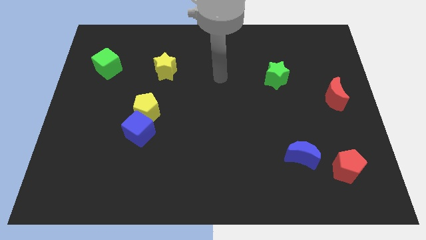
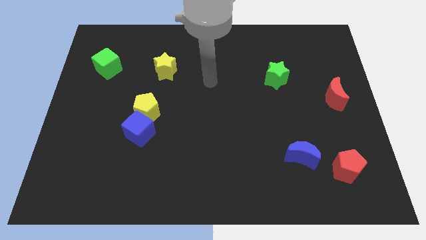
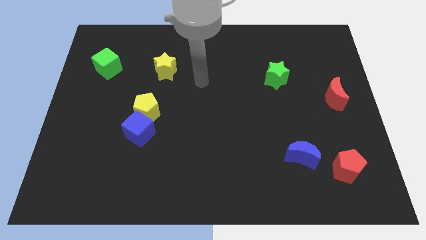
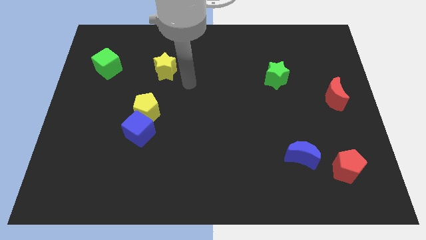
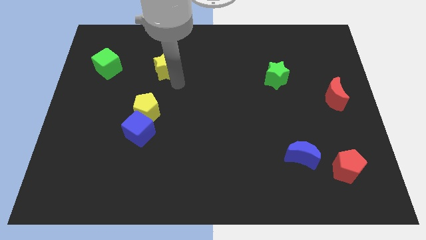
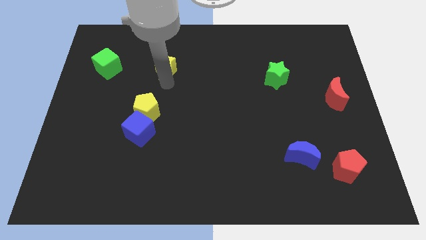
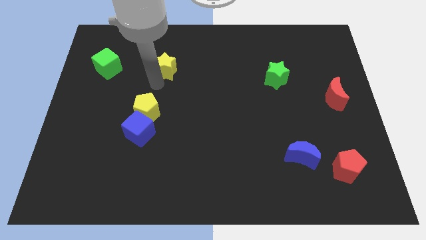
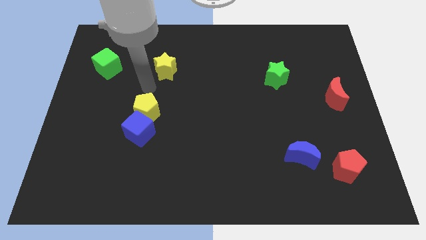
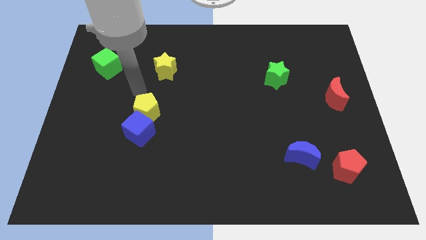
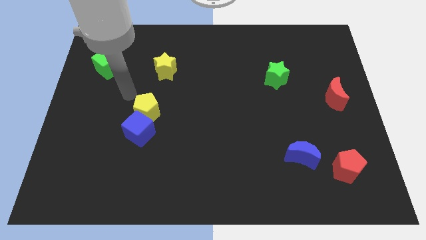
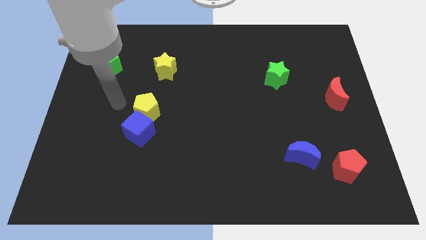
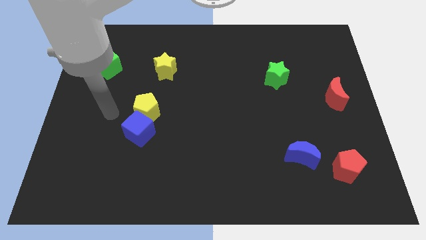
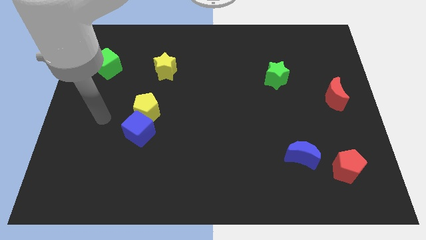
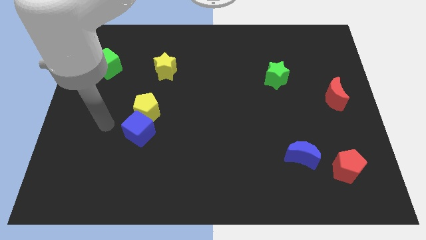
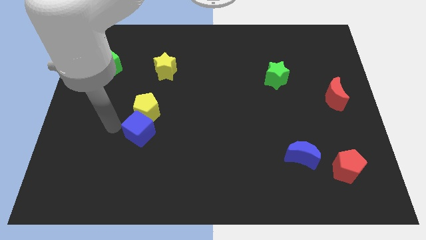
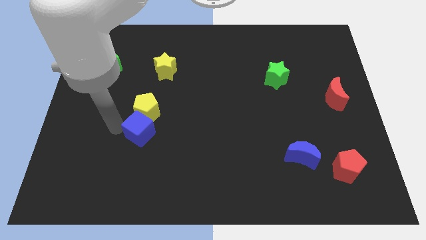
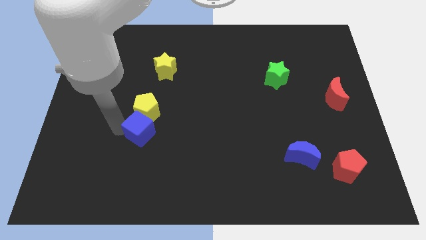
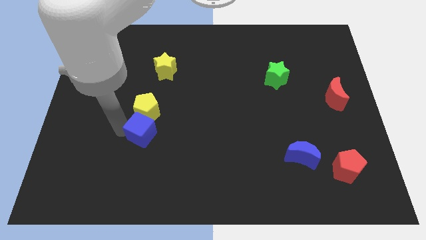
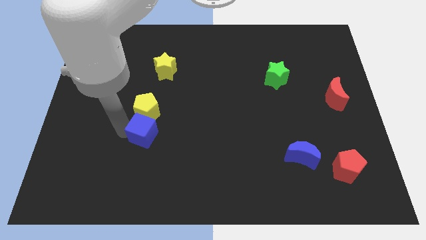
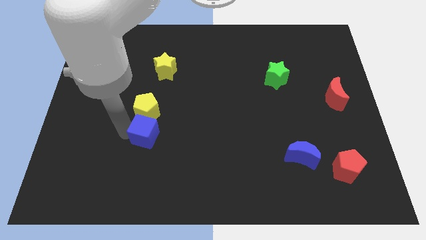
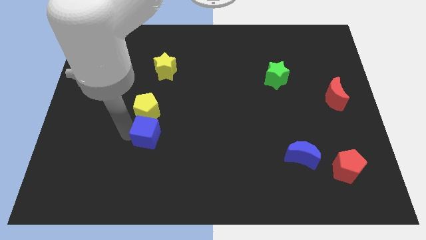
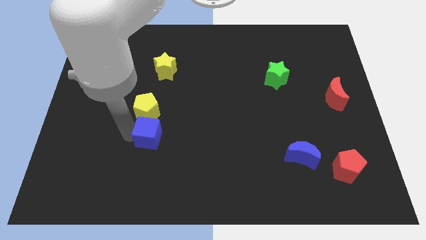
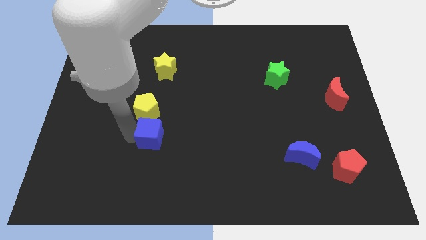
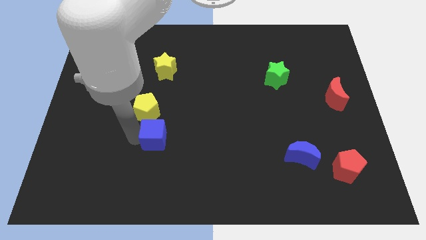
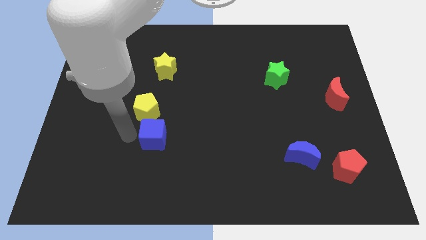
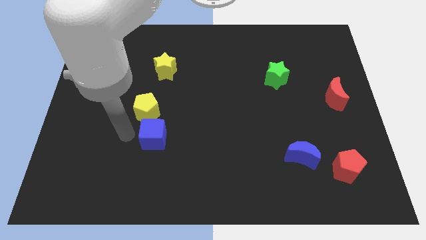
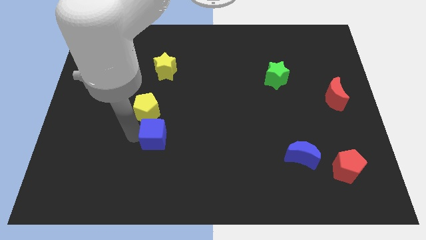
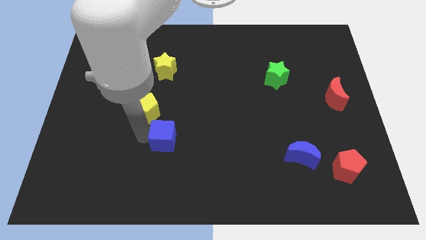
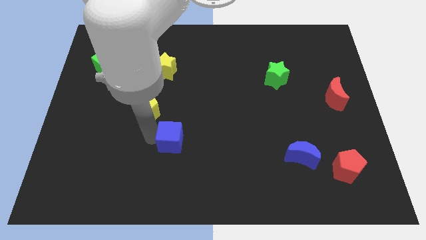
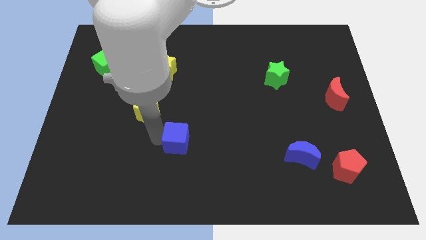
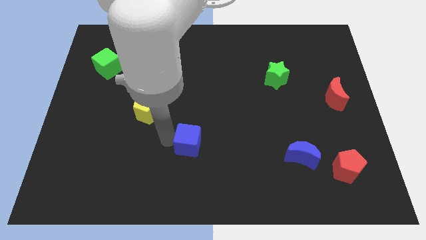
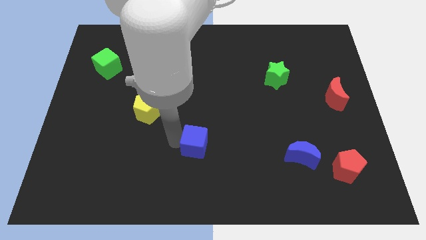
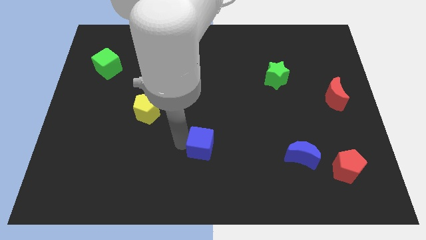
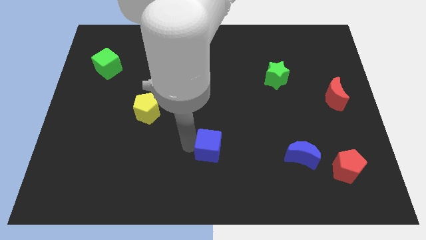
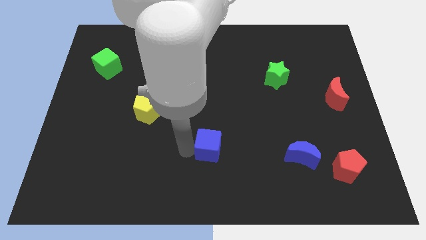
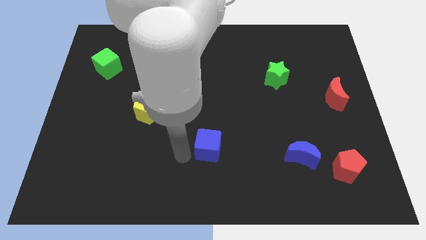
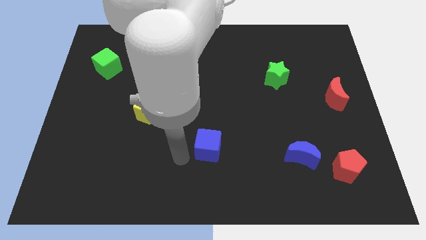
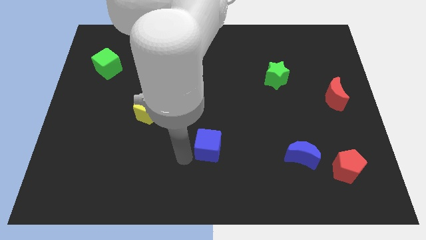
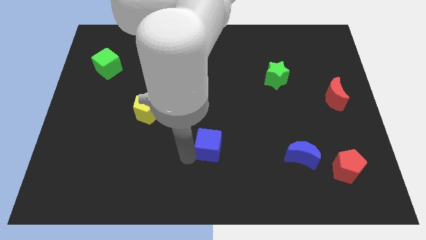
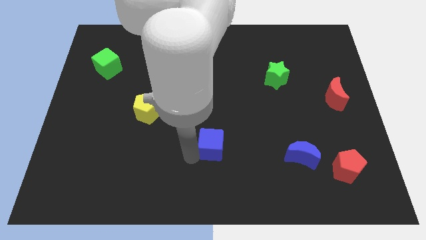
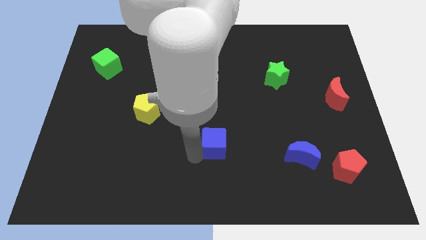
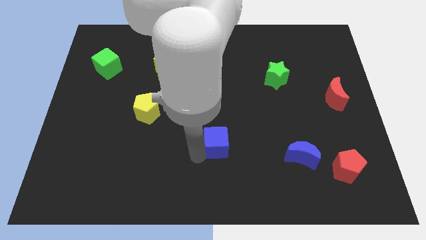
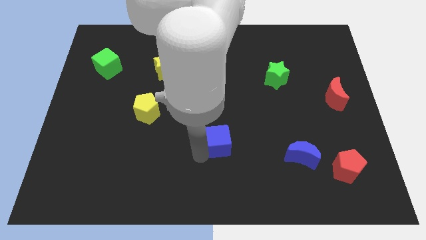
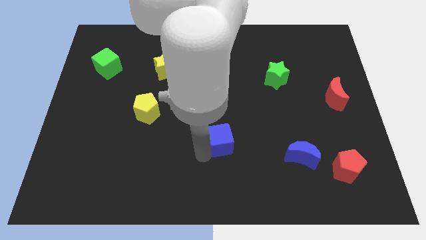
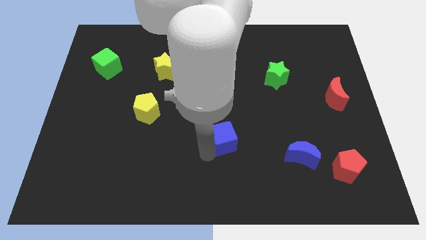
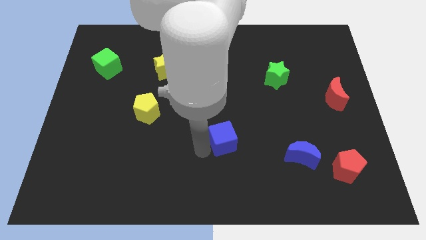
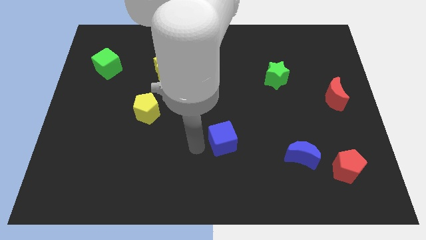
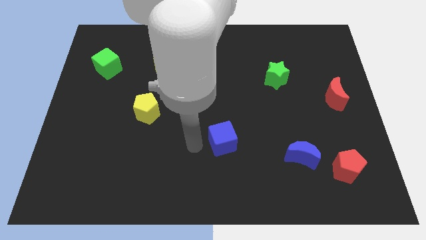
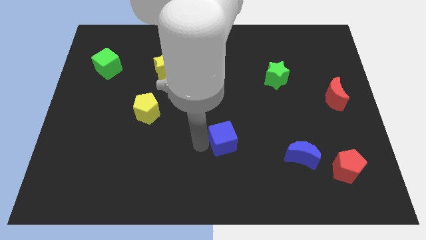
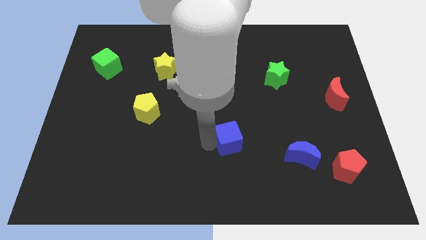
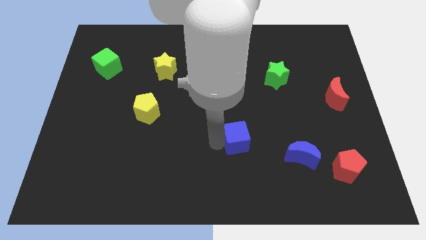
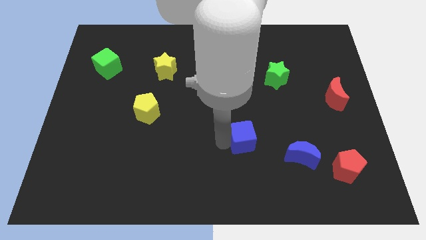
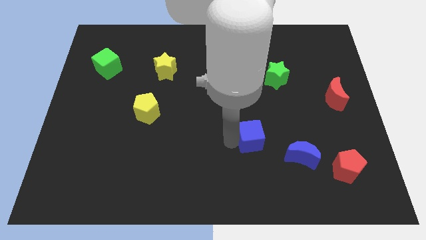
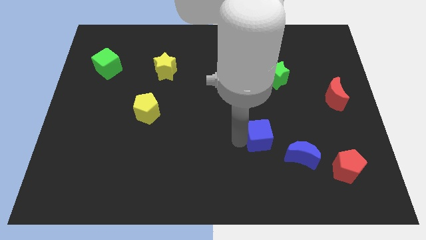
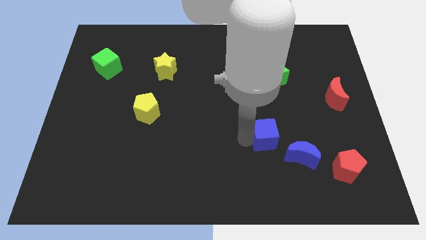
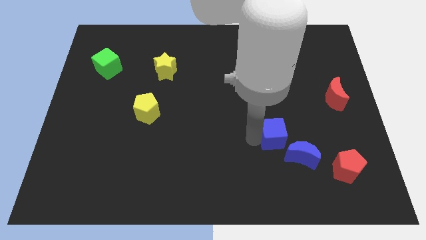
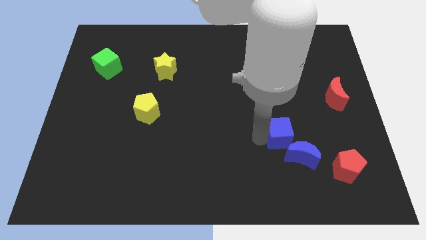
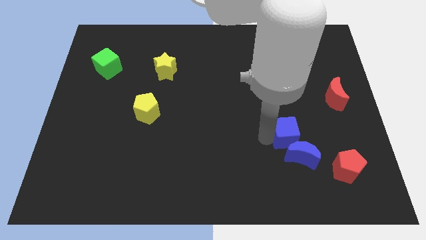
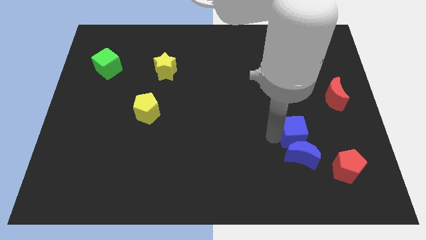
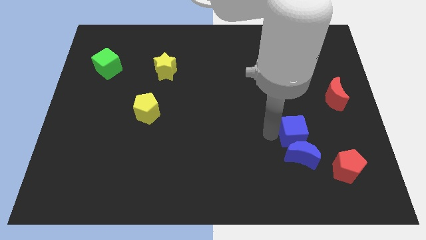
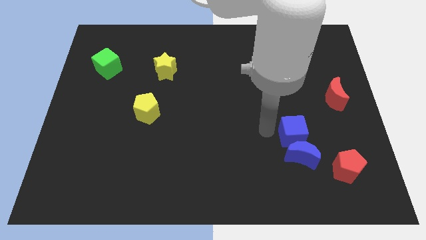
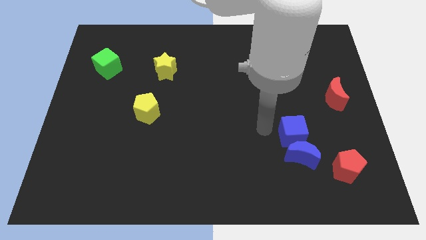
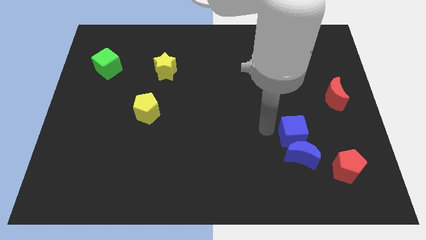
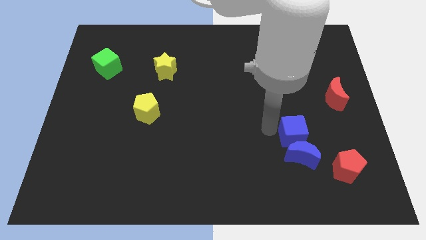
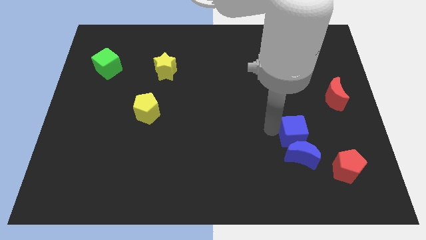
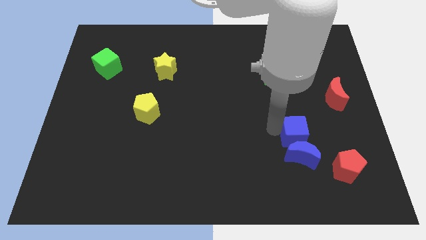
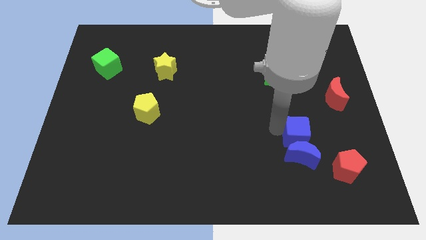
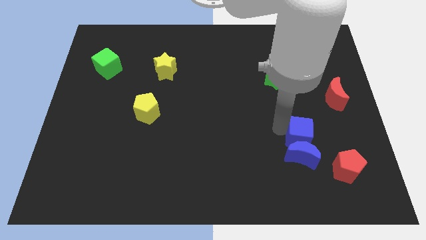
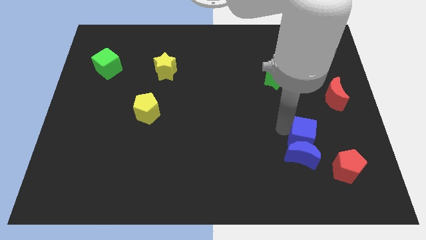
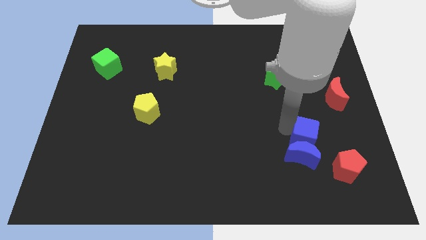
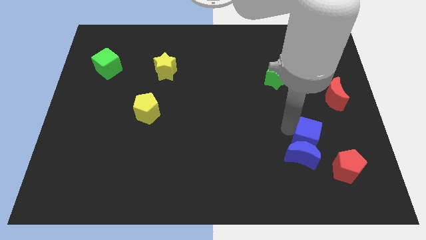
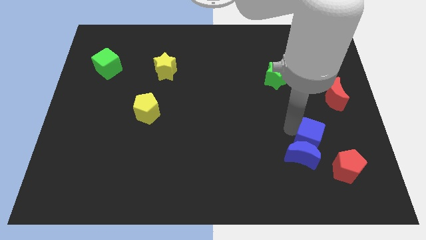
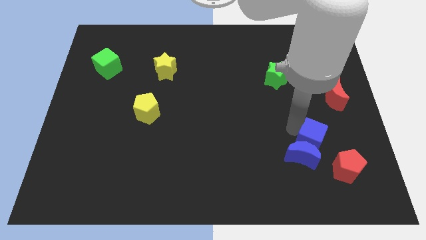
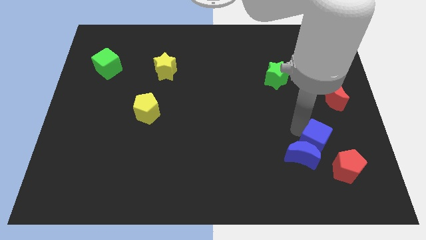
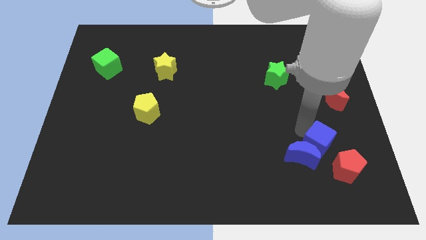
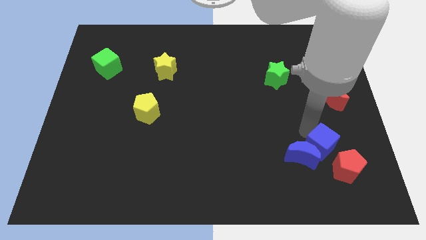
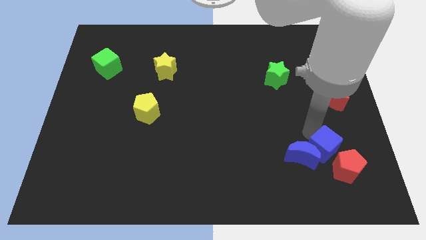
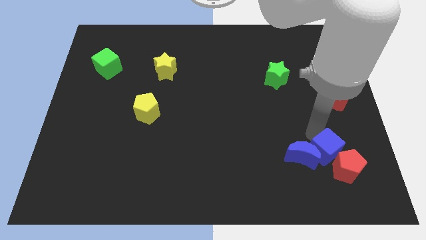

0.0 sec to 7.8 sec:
move the blue cube to the red pentagon

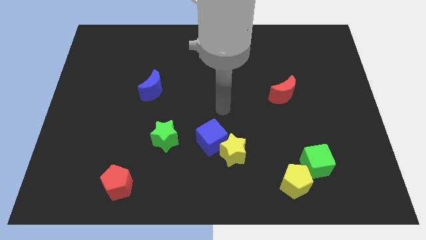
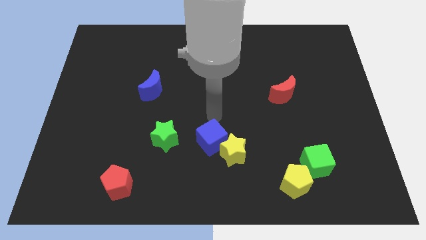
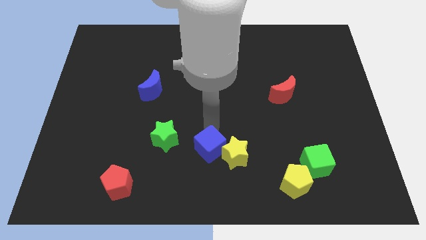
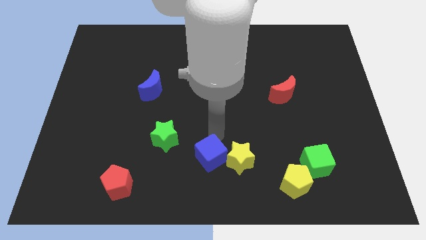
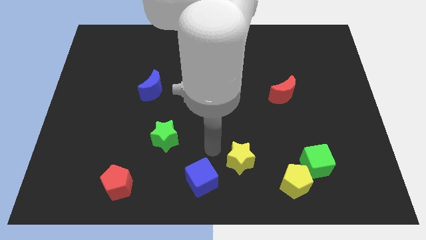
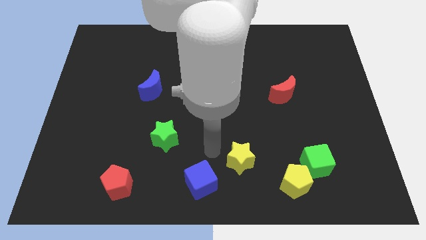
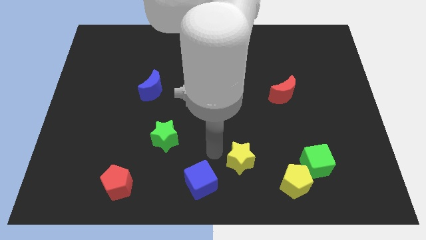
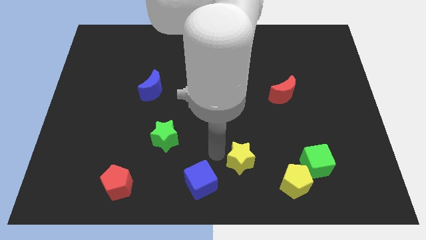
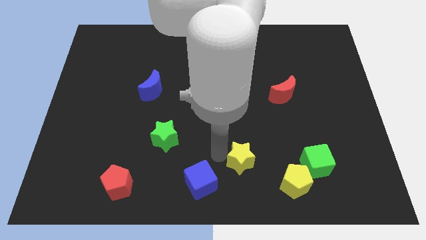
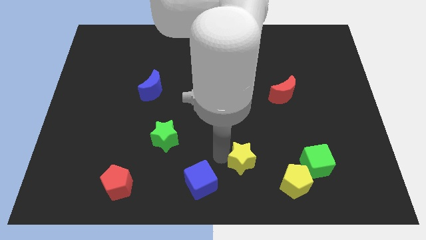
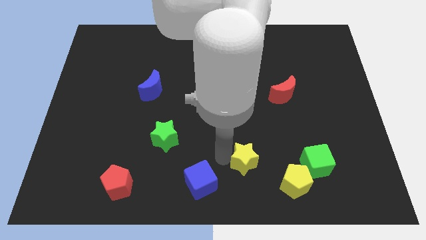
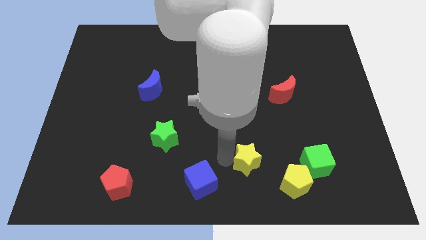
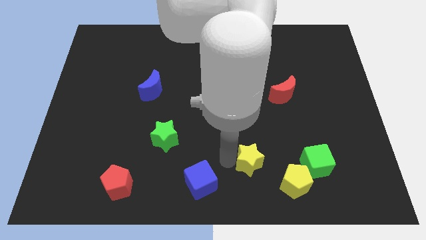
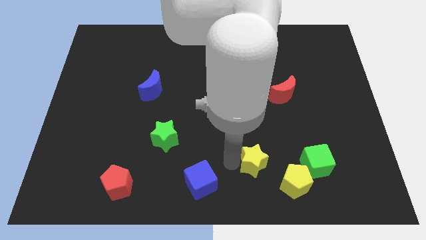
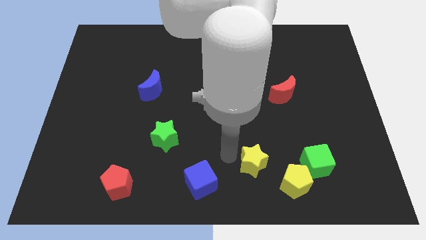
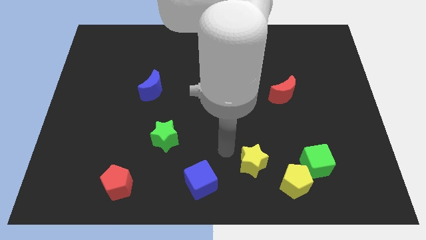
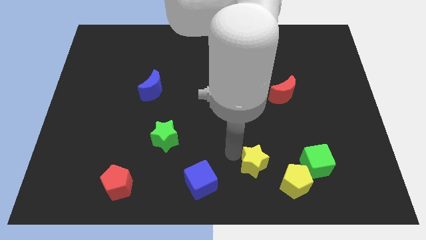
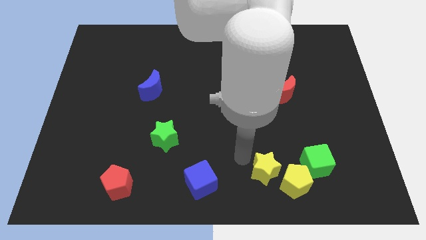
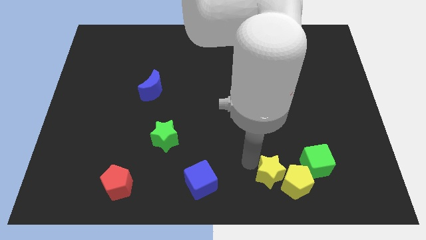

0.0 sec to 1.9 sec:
slide the yellow star to the yellow pentagon
